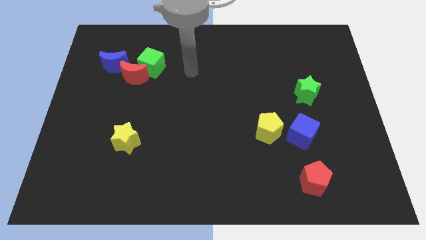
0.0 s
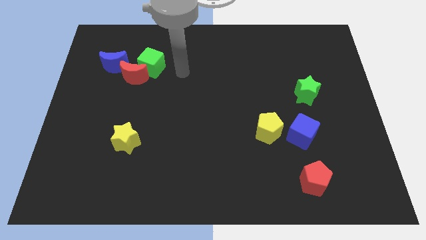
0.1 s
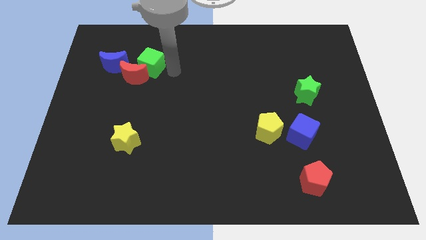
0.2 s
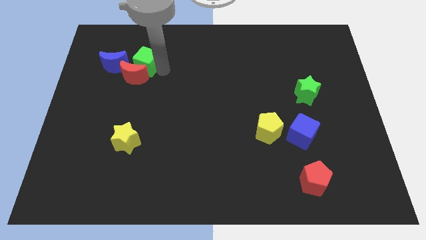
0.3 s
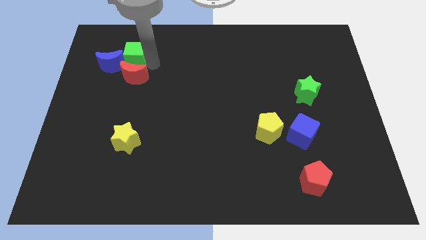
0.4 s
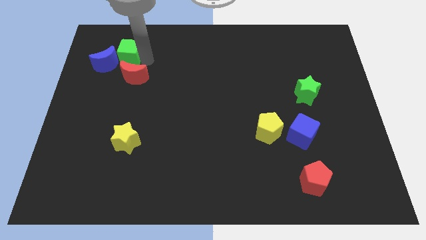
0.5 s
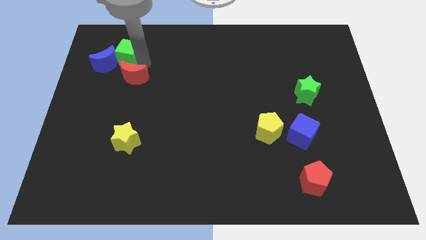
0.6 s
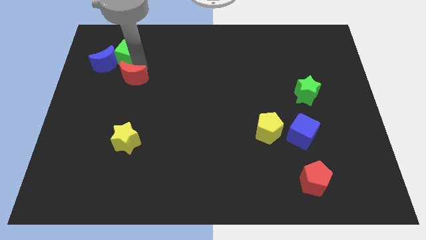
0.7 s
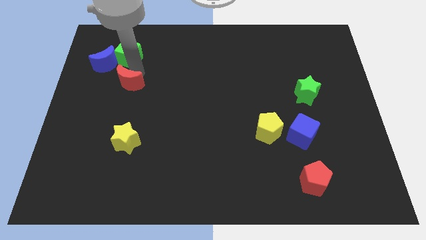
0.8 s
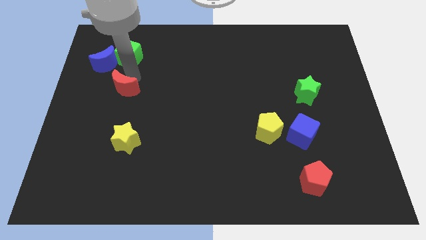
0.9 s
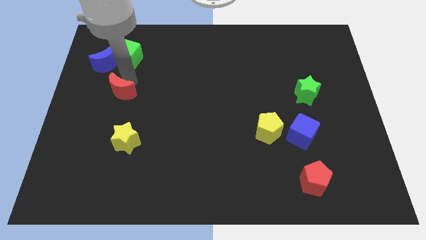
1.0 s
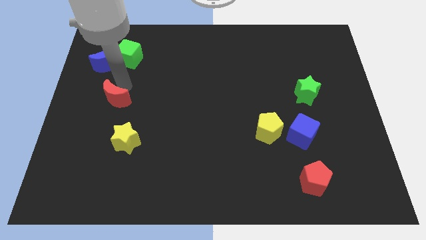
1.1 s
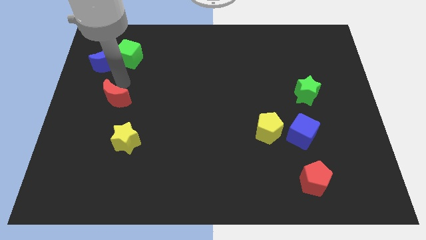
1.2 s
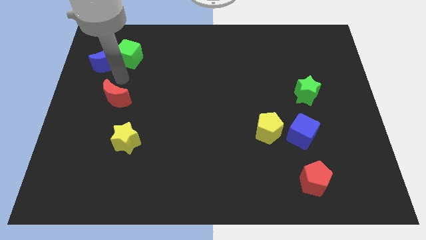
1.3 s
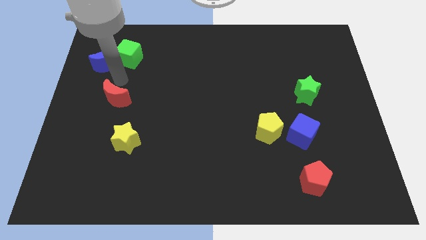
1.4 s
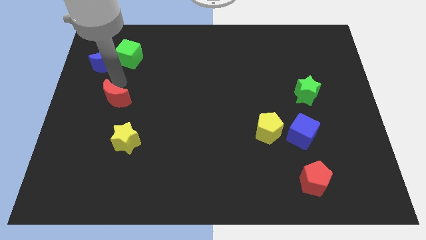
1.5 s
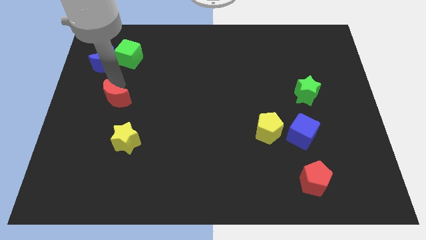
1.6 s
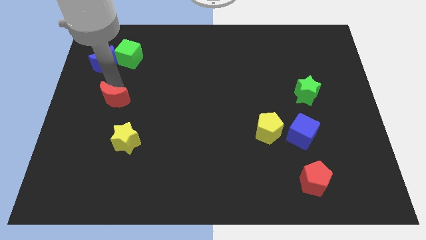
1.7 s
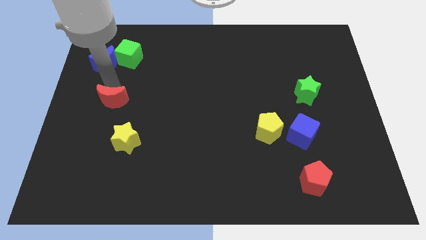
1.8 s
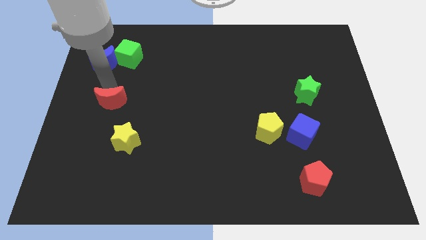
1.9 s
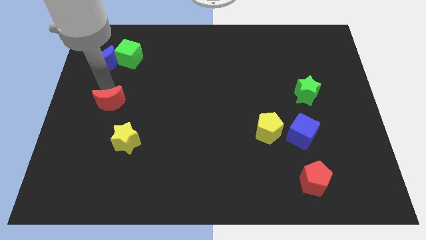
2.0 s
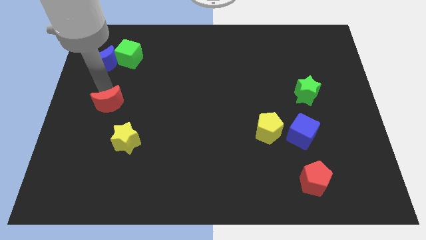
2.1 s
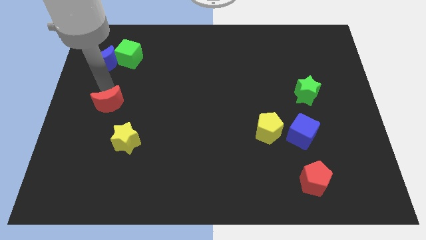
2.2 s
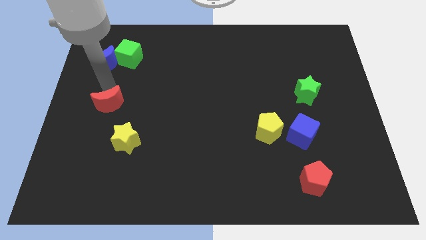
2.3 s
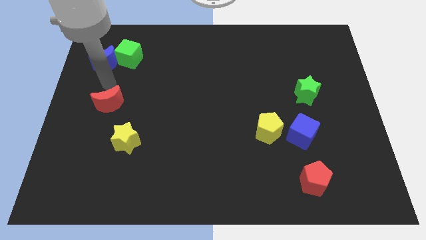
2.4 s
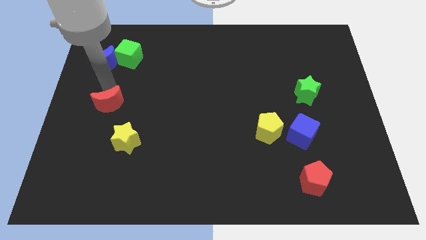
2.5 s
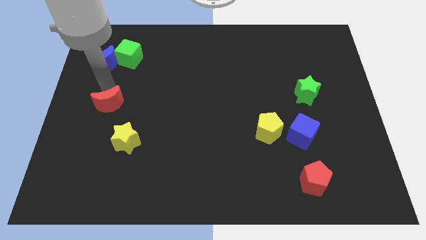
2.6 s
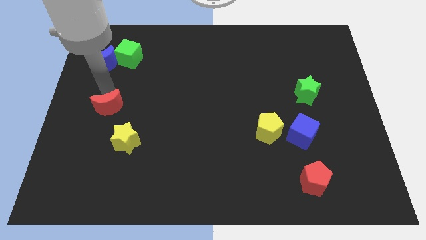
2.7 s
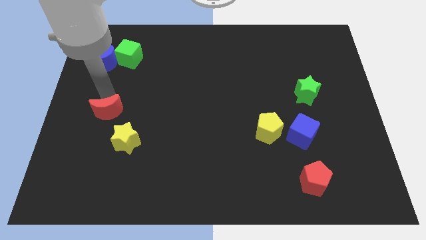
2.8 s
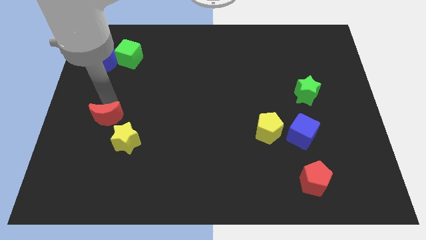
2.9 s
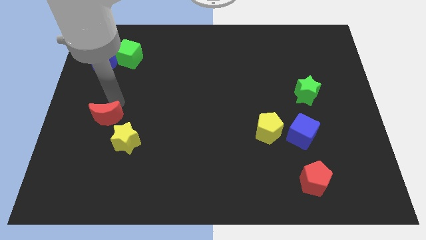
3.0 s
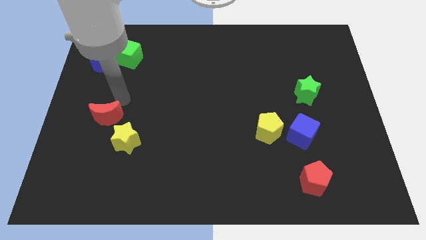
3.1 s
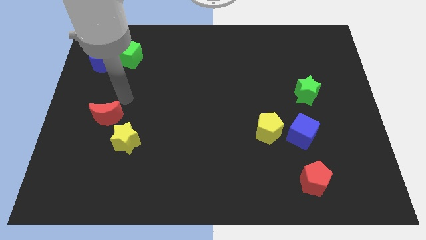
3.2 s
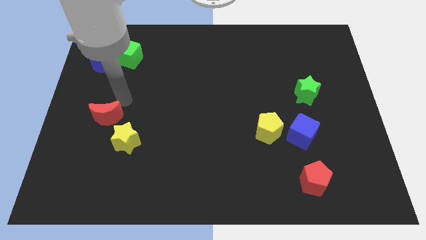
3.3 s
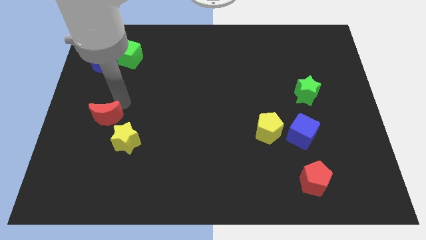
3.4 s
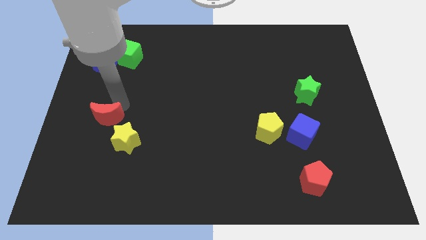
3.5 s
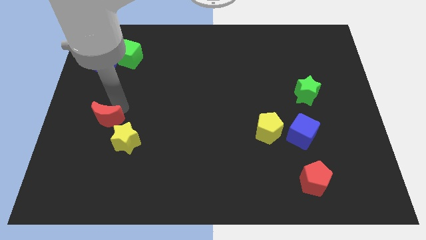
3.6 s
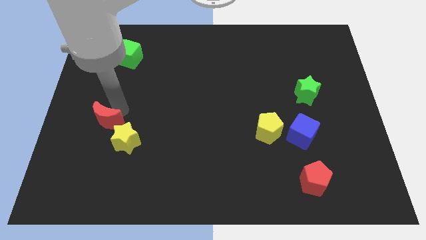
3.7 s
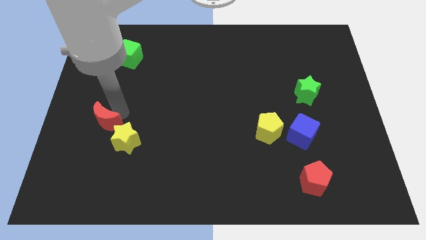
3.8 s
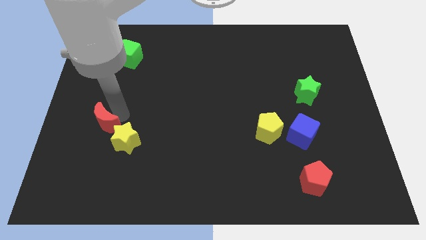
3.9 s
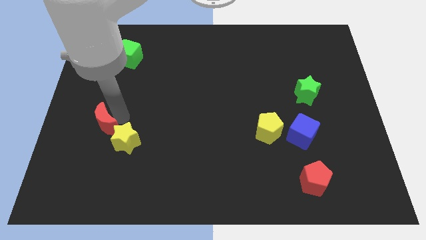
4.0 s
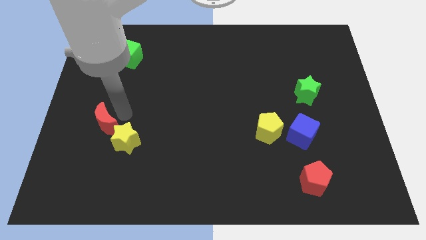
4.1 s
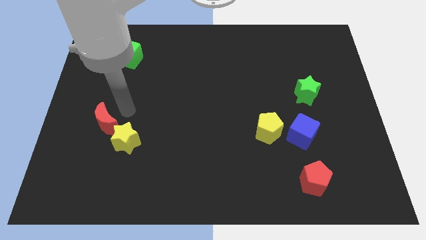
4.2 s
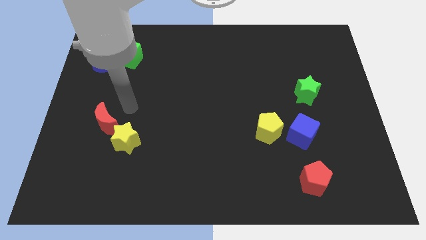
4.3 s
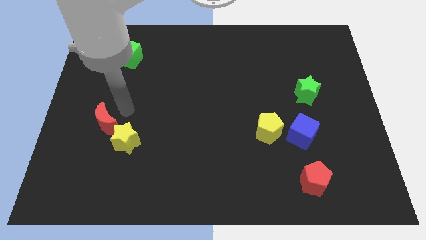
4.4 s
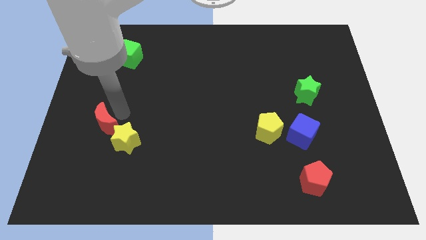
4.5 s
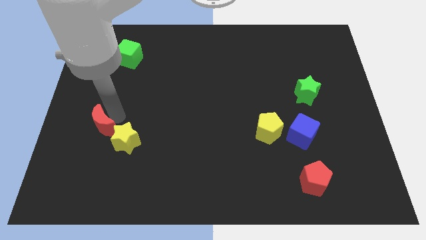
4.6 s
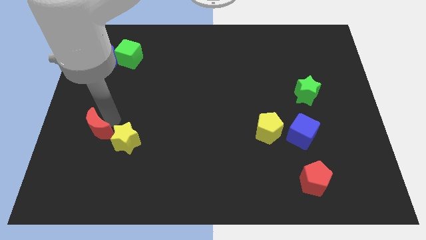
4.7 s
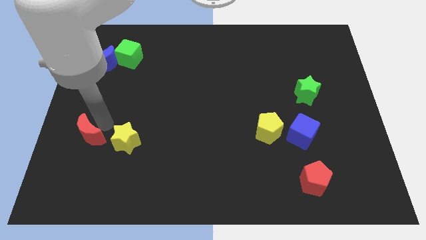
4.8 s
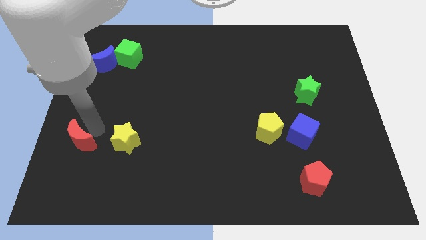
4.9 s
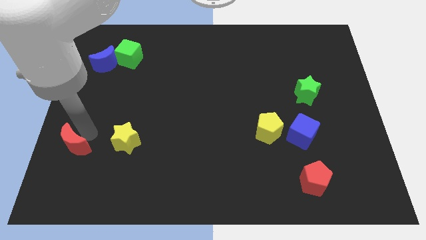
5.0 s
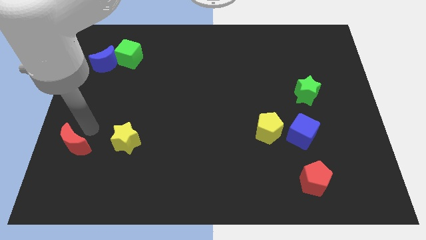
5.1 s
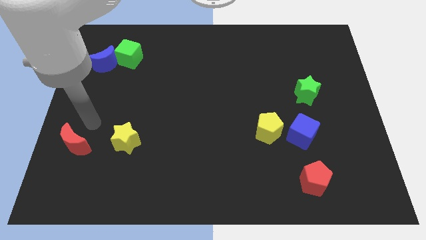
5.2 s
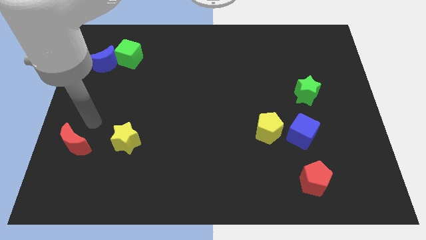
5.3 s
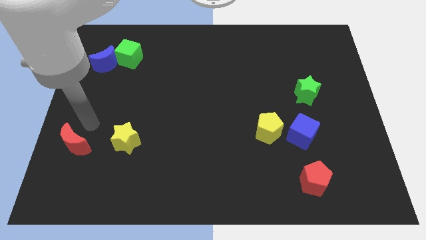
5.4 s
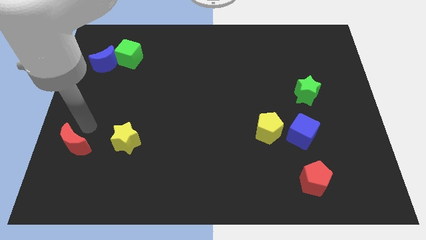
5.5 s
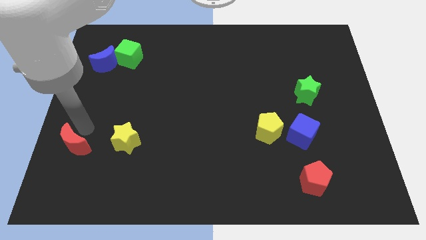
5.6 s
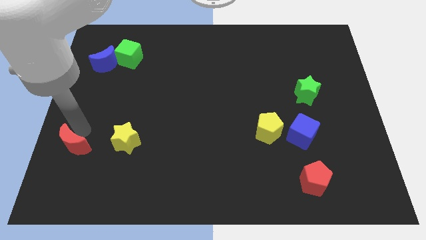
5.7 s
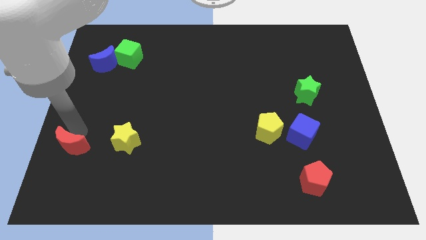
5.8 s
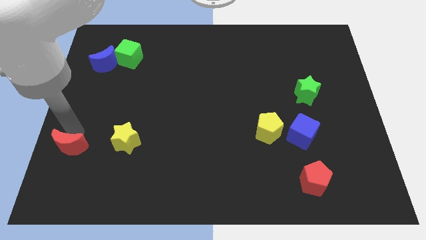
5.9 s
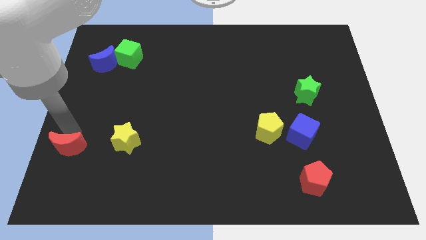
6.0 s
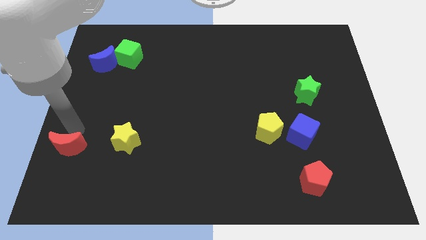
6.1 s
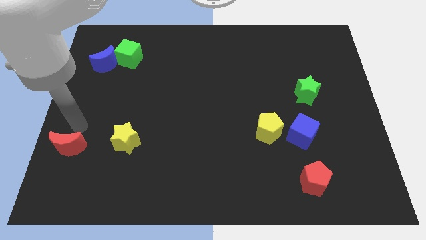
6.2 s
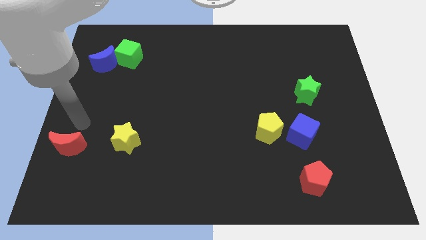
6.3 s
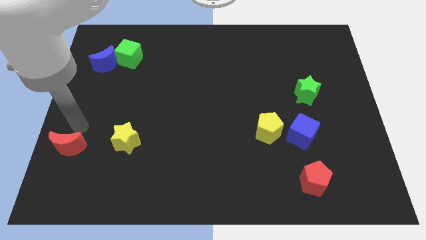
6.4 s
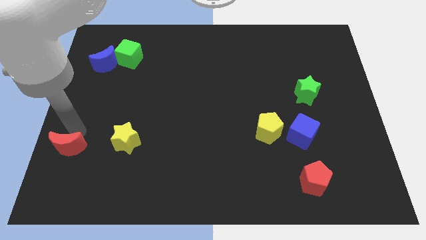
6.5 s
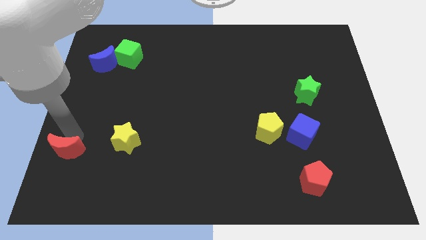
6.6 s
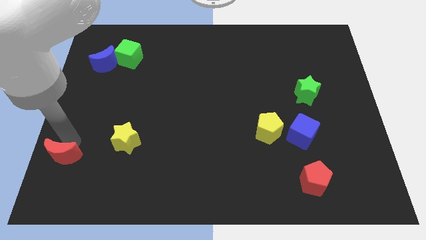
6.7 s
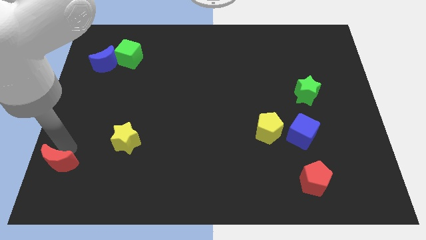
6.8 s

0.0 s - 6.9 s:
move the red moon to the lower left corner
